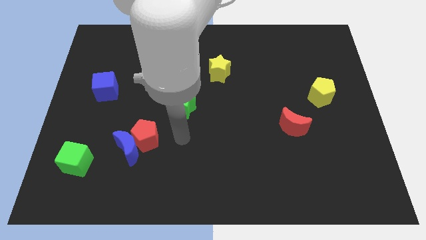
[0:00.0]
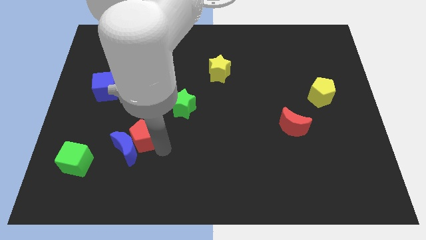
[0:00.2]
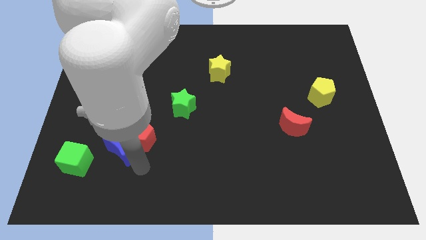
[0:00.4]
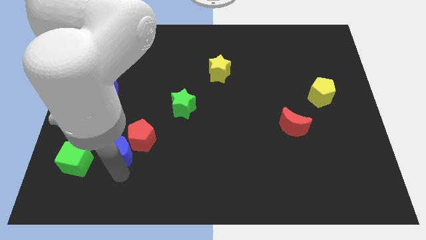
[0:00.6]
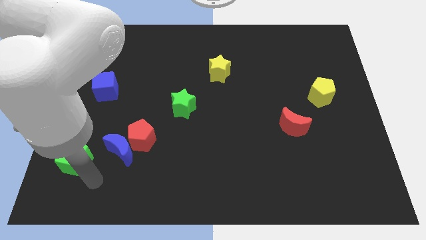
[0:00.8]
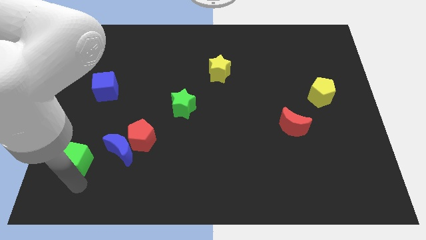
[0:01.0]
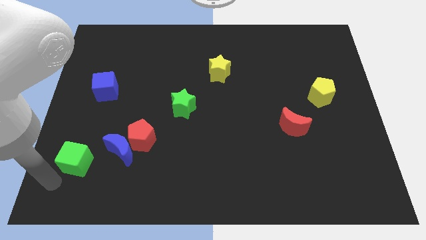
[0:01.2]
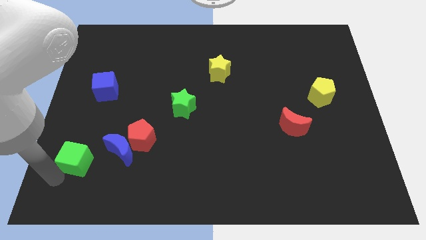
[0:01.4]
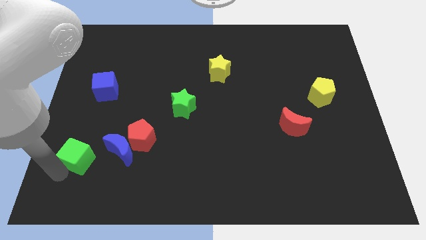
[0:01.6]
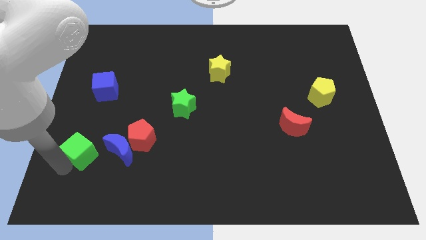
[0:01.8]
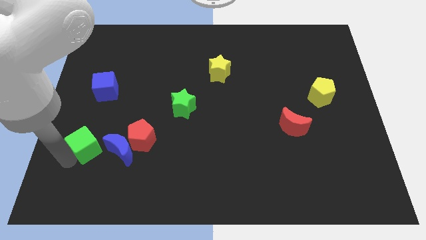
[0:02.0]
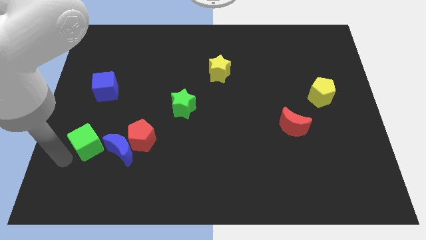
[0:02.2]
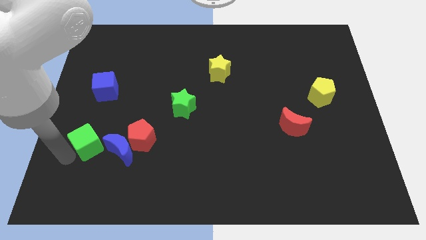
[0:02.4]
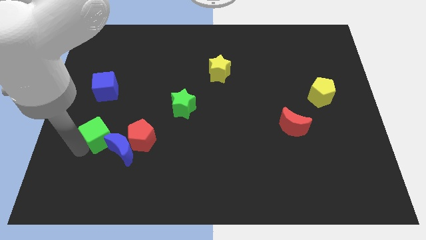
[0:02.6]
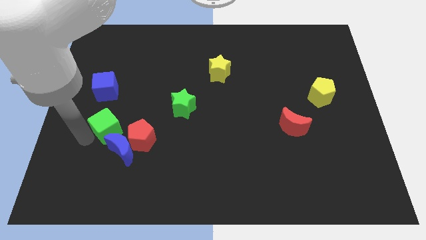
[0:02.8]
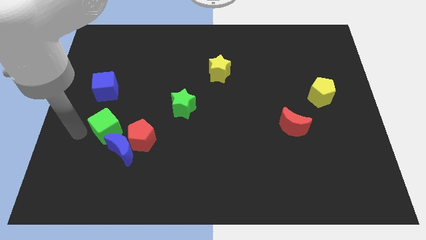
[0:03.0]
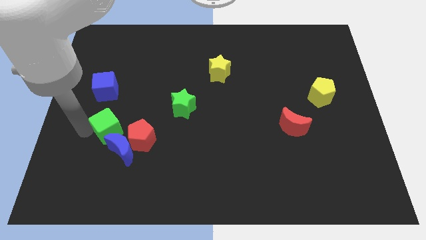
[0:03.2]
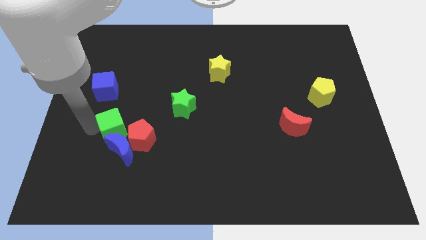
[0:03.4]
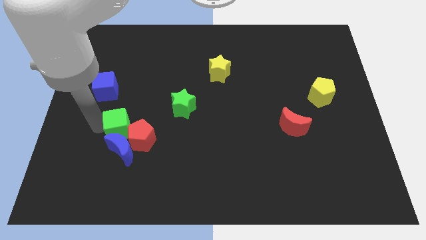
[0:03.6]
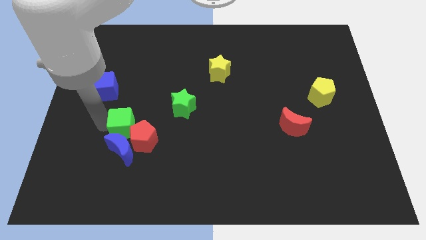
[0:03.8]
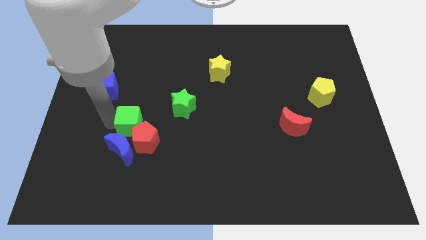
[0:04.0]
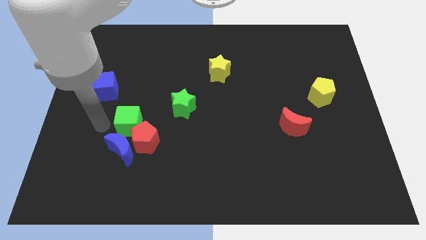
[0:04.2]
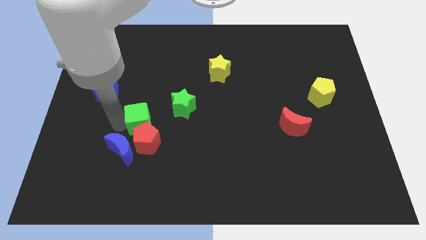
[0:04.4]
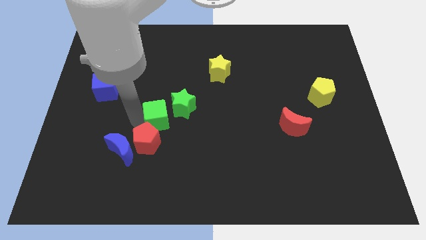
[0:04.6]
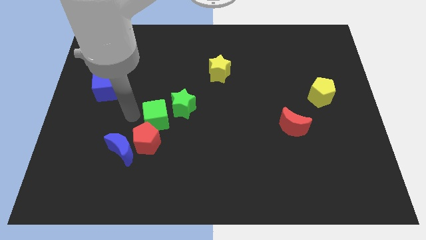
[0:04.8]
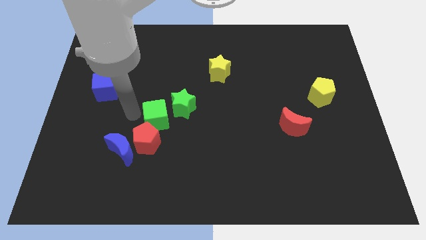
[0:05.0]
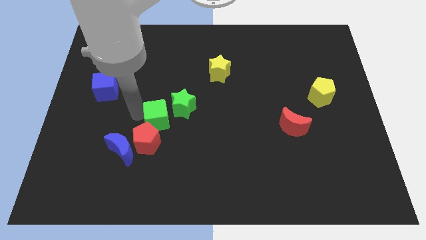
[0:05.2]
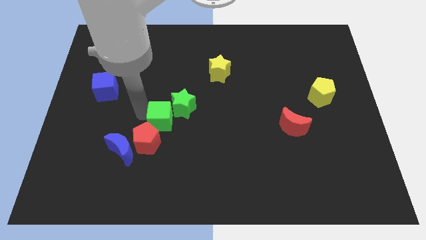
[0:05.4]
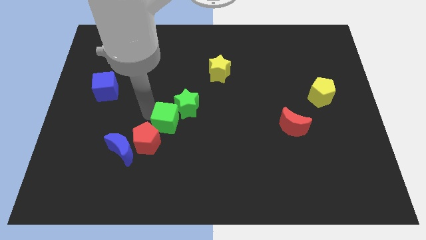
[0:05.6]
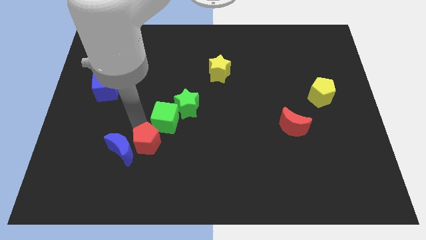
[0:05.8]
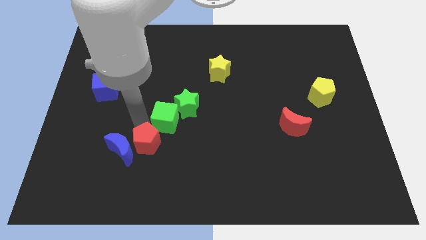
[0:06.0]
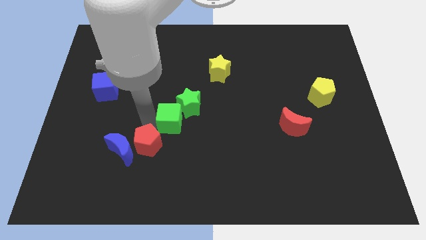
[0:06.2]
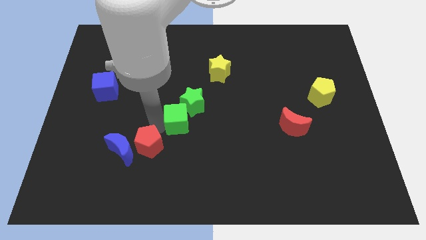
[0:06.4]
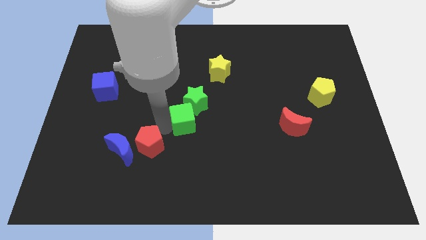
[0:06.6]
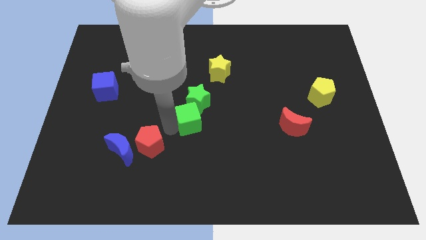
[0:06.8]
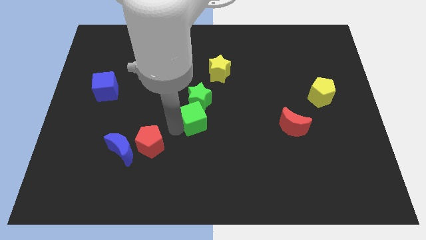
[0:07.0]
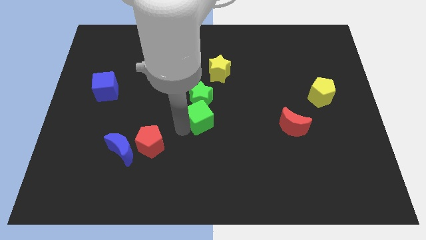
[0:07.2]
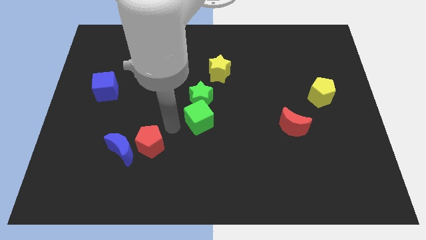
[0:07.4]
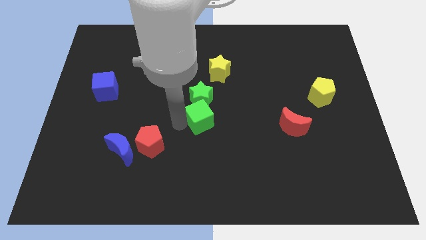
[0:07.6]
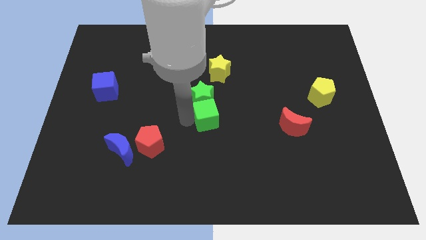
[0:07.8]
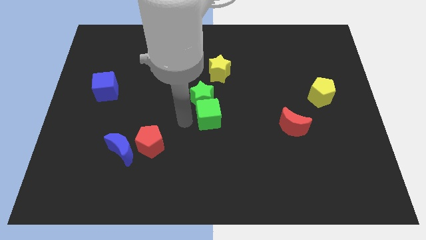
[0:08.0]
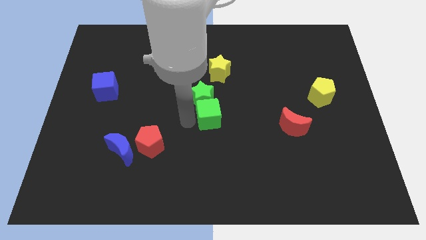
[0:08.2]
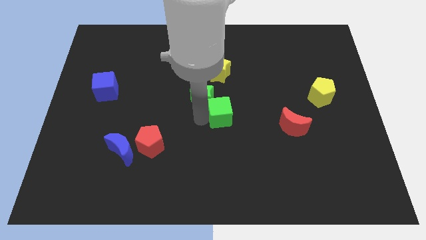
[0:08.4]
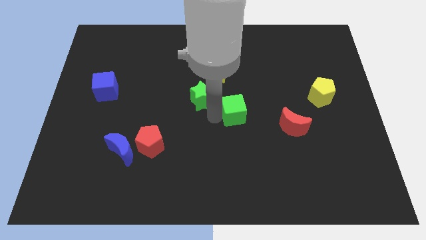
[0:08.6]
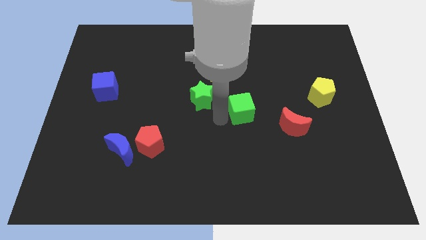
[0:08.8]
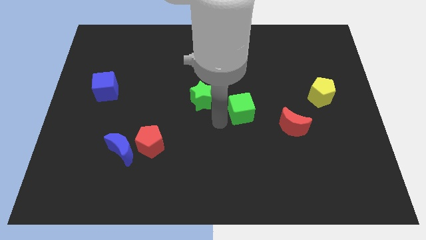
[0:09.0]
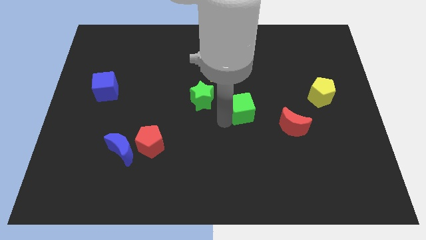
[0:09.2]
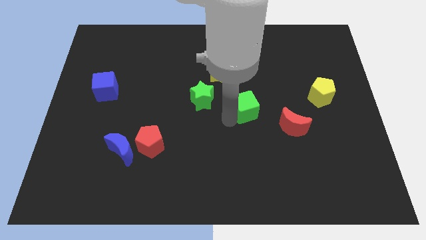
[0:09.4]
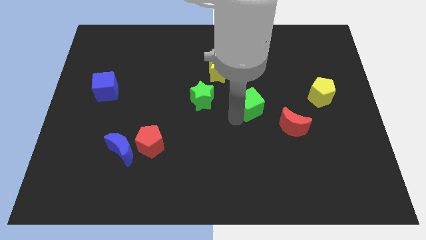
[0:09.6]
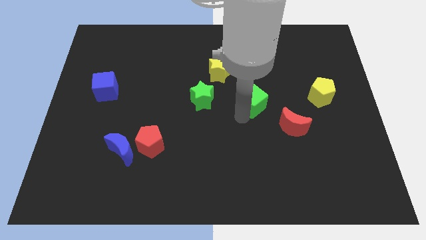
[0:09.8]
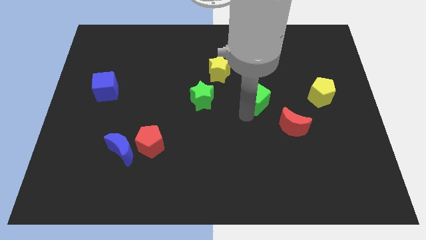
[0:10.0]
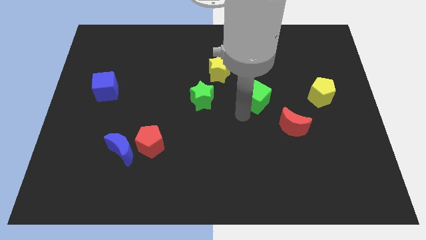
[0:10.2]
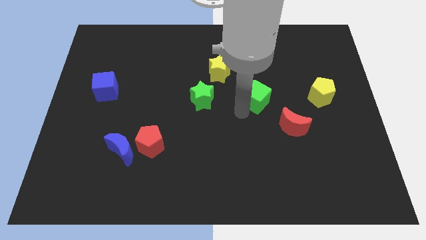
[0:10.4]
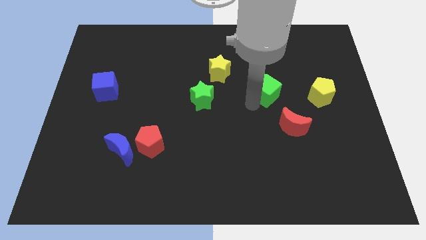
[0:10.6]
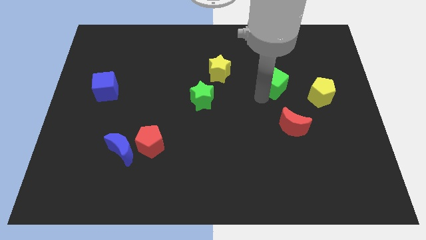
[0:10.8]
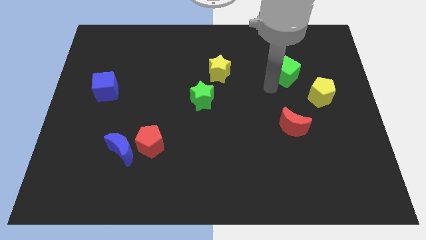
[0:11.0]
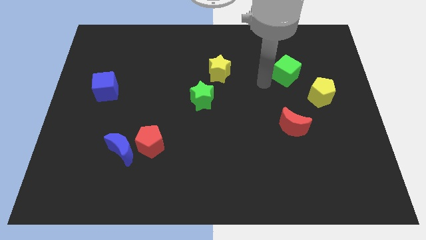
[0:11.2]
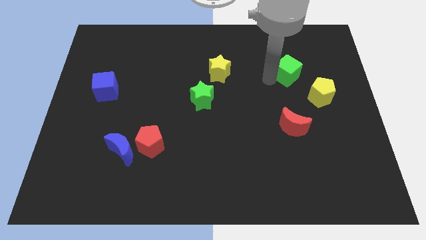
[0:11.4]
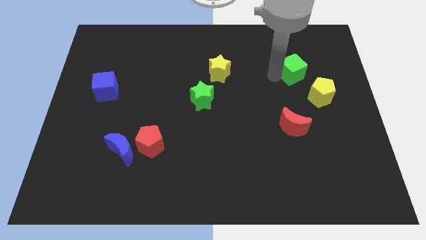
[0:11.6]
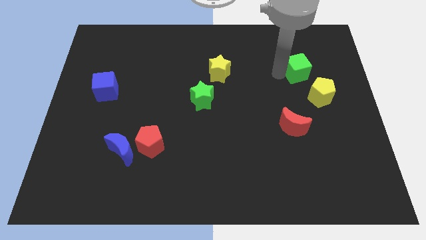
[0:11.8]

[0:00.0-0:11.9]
move the green cube to the top of the yellow pentagon

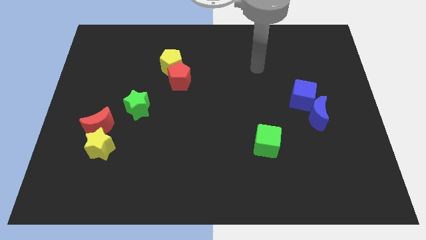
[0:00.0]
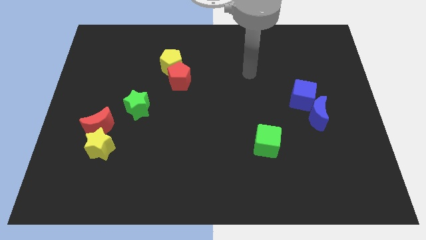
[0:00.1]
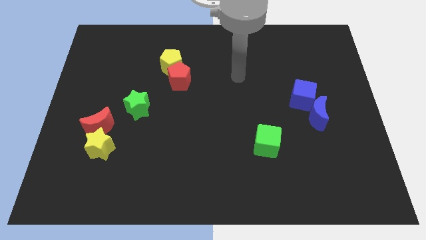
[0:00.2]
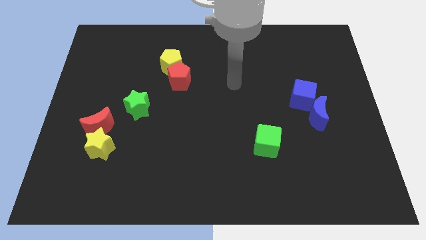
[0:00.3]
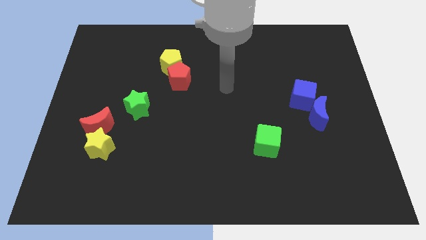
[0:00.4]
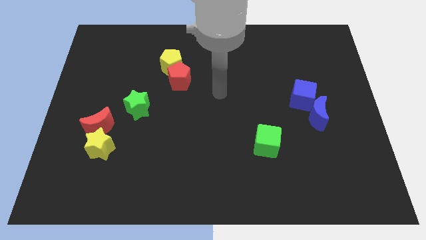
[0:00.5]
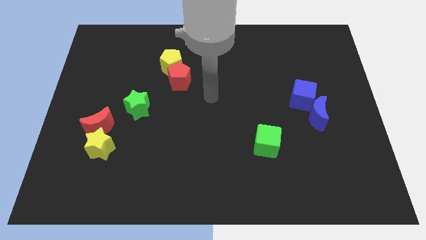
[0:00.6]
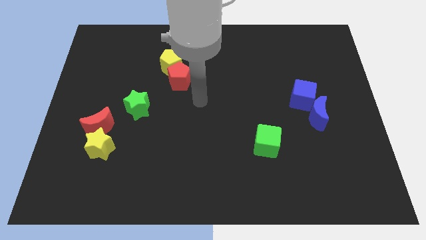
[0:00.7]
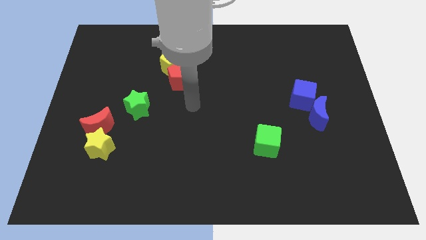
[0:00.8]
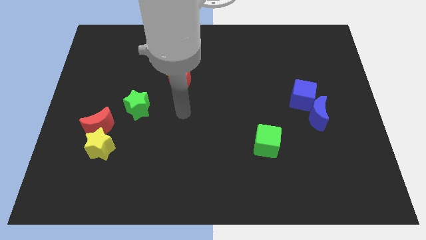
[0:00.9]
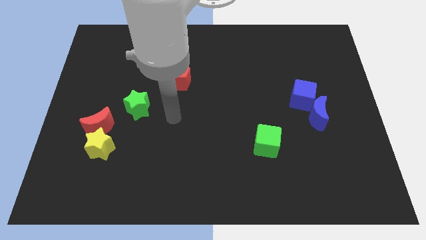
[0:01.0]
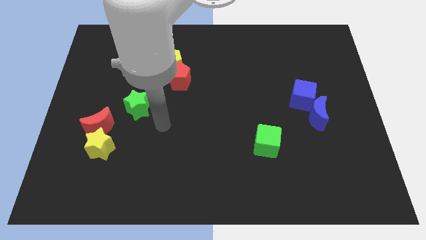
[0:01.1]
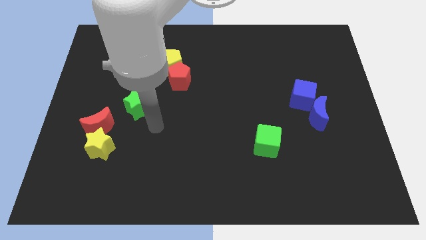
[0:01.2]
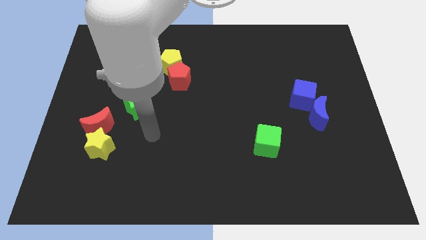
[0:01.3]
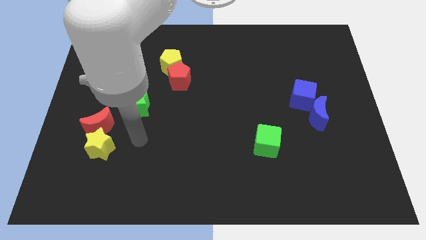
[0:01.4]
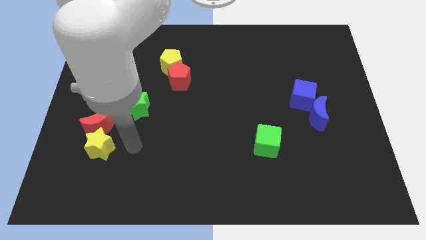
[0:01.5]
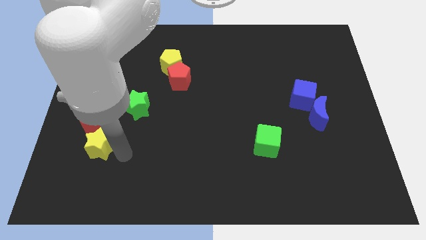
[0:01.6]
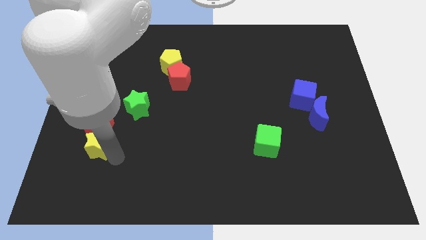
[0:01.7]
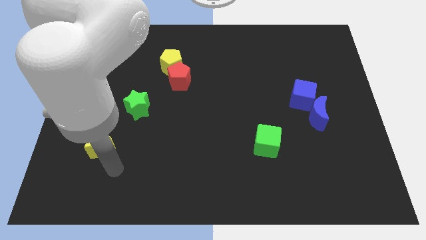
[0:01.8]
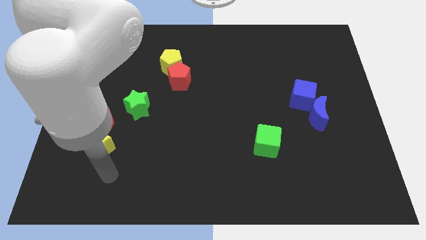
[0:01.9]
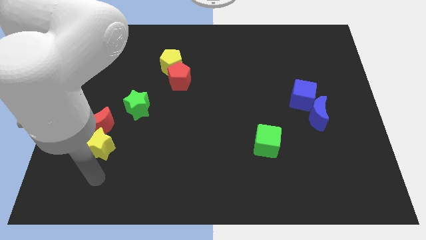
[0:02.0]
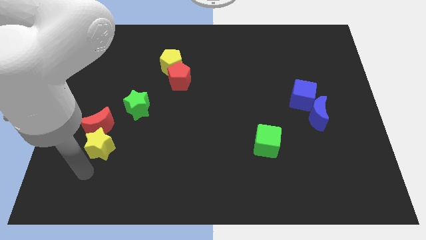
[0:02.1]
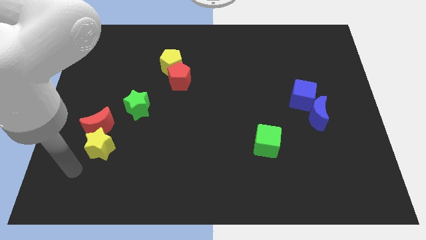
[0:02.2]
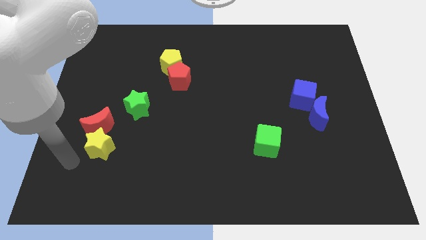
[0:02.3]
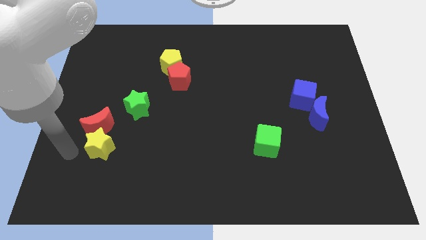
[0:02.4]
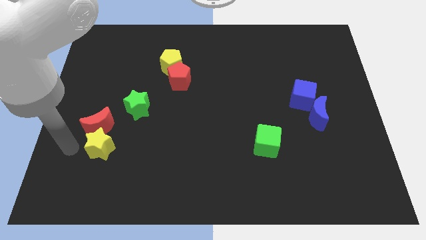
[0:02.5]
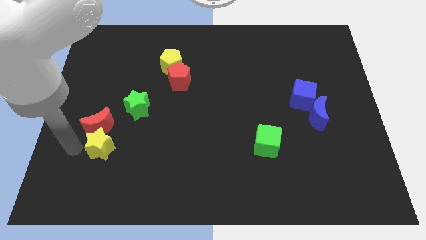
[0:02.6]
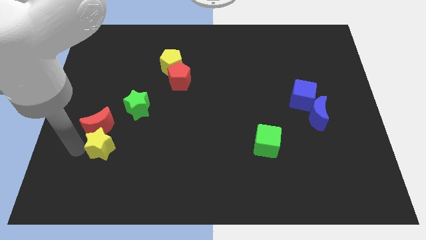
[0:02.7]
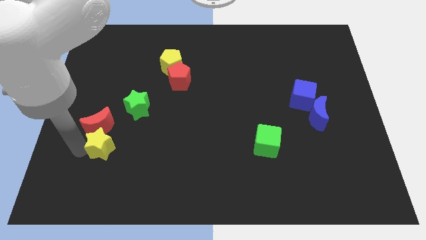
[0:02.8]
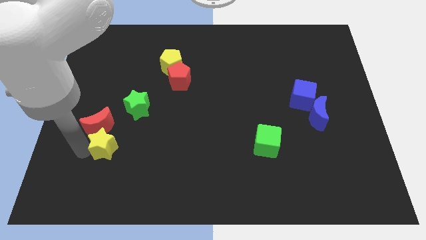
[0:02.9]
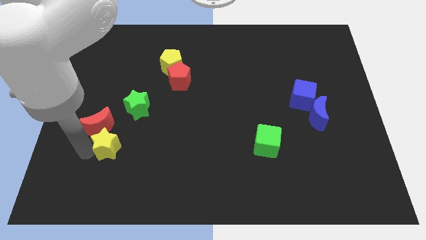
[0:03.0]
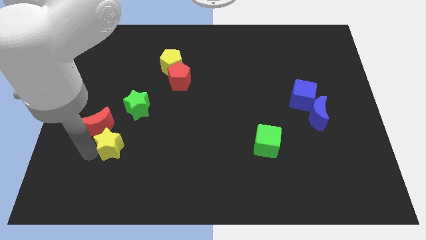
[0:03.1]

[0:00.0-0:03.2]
put the yellow star to the bottom of the green star
